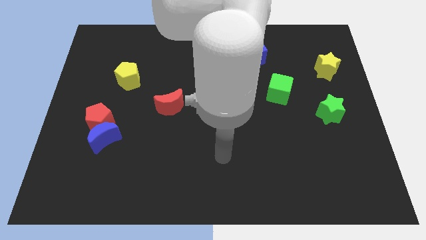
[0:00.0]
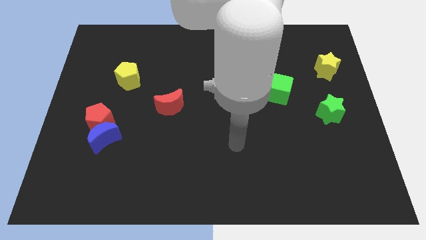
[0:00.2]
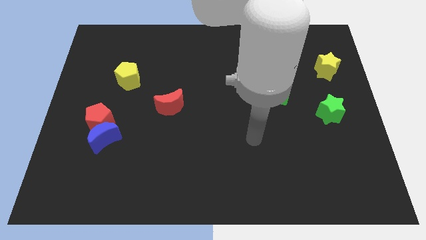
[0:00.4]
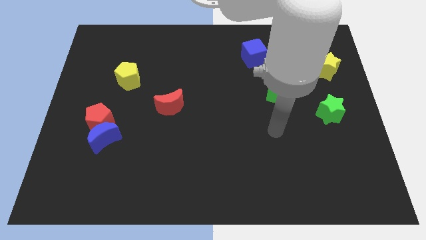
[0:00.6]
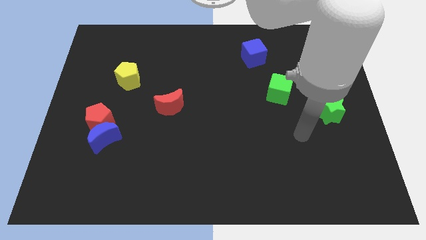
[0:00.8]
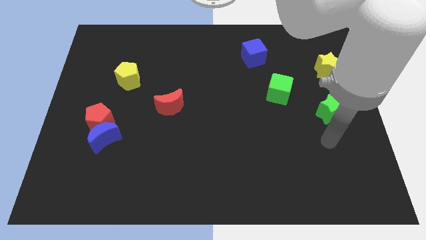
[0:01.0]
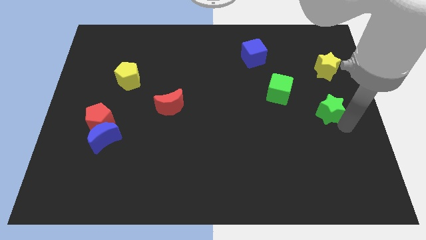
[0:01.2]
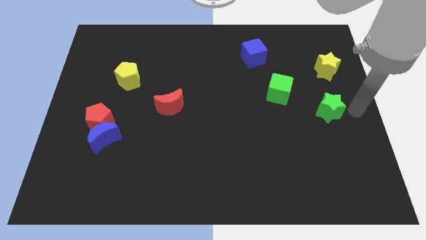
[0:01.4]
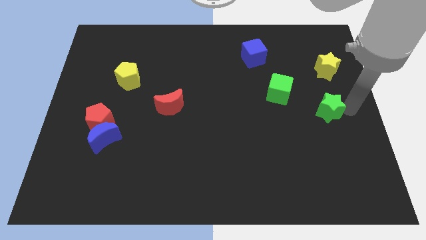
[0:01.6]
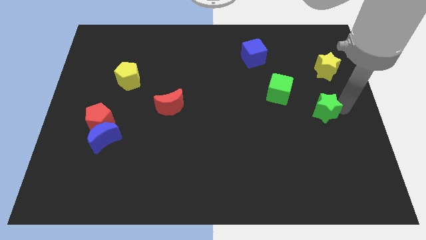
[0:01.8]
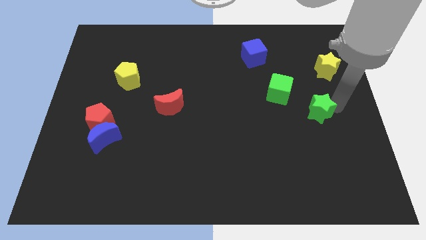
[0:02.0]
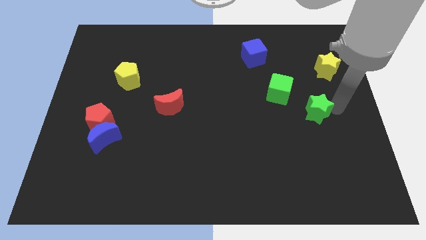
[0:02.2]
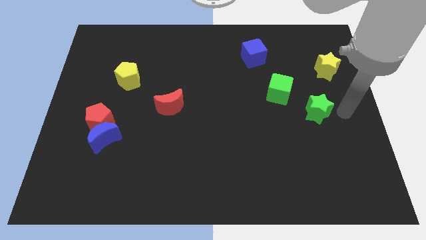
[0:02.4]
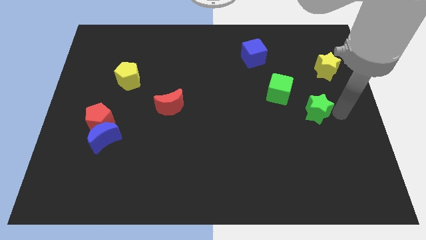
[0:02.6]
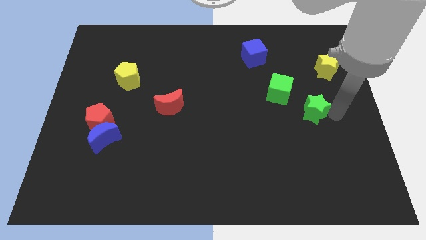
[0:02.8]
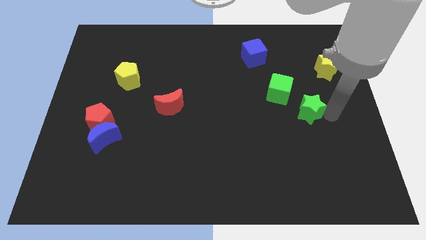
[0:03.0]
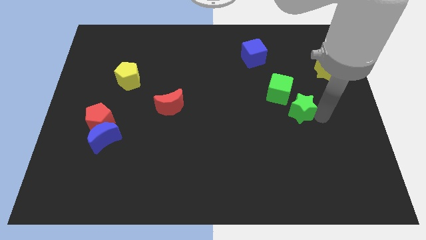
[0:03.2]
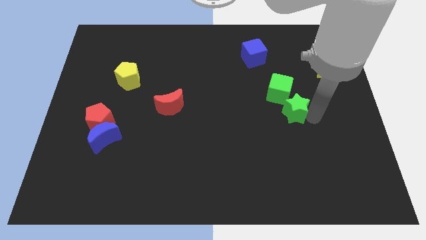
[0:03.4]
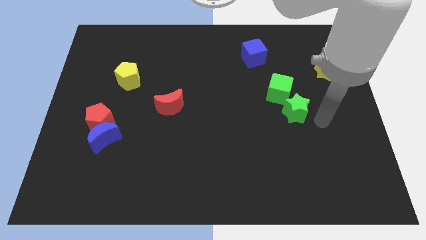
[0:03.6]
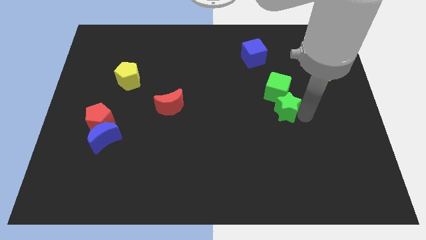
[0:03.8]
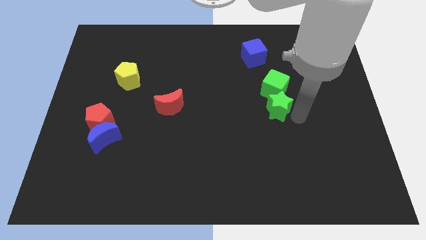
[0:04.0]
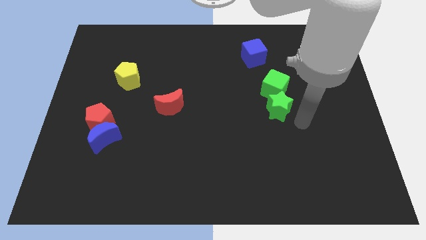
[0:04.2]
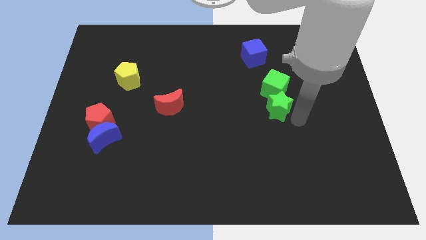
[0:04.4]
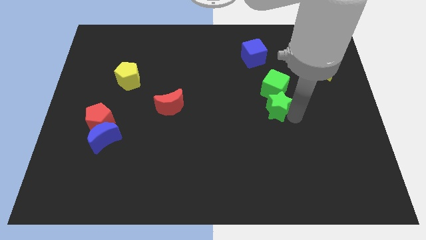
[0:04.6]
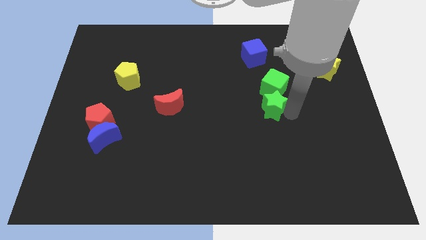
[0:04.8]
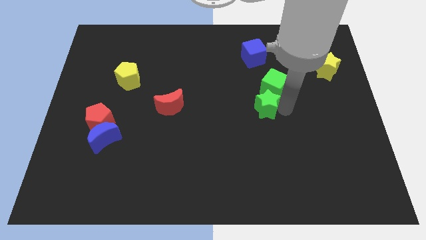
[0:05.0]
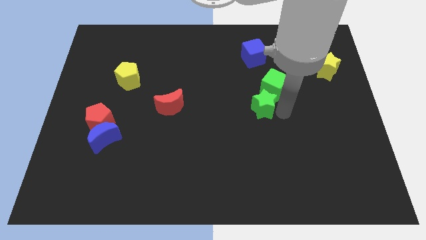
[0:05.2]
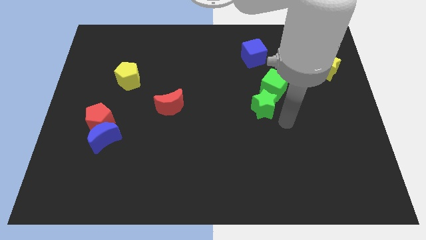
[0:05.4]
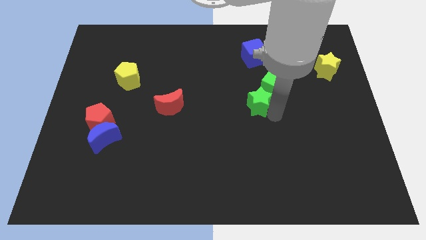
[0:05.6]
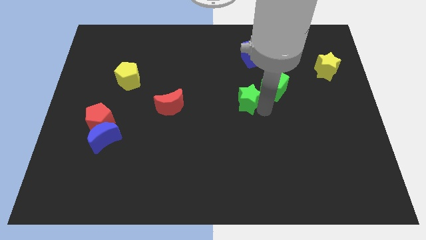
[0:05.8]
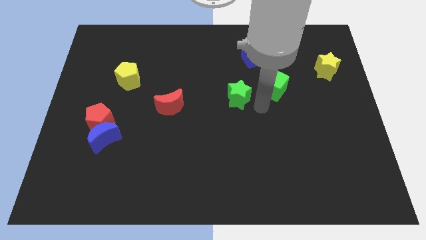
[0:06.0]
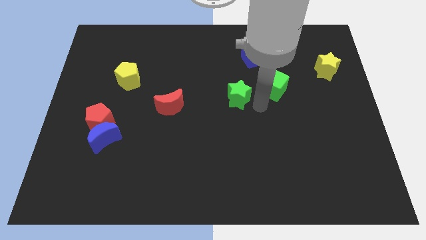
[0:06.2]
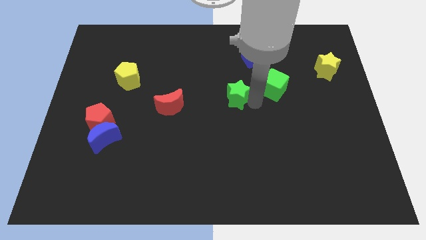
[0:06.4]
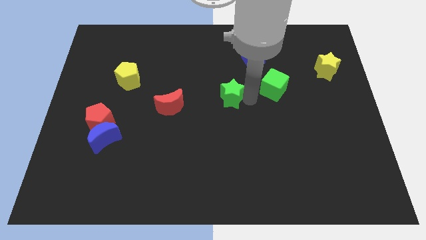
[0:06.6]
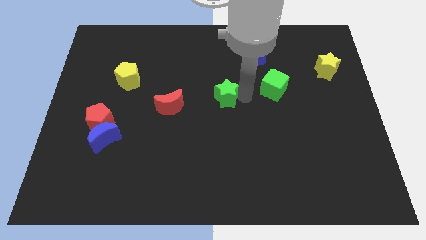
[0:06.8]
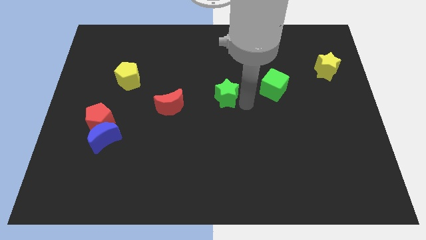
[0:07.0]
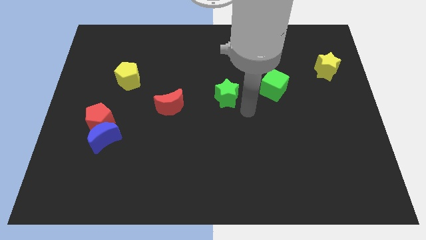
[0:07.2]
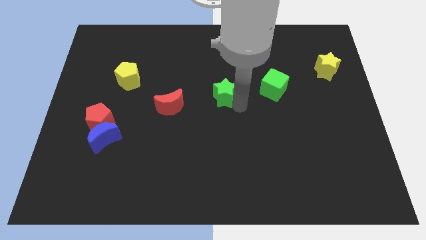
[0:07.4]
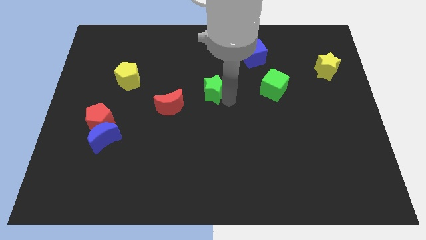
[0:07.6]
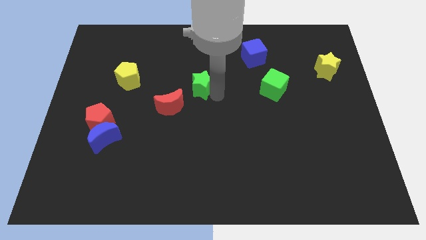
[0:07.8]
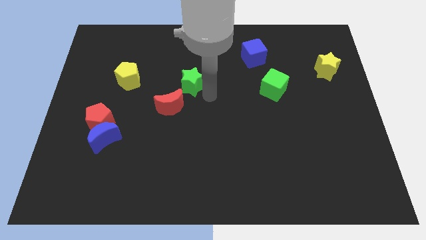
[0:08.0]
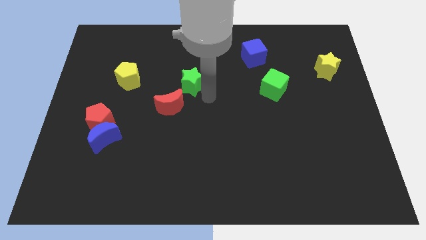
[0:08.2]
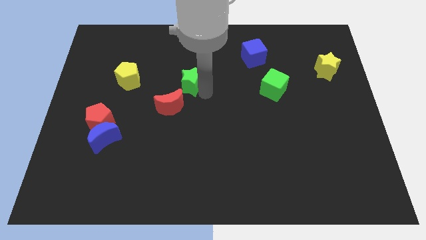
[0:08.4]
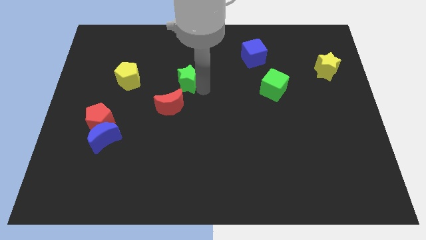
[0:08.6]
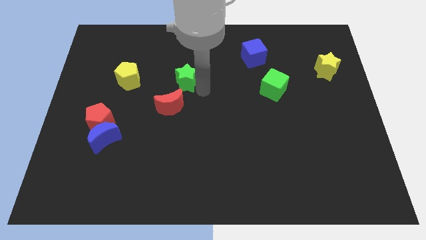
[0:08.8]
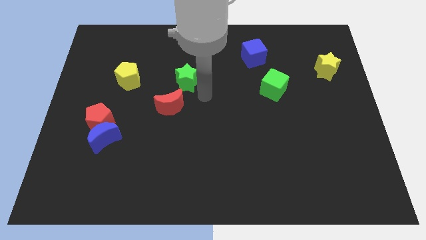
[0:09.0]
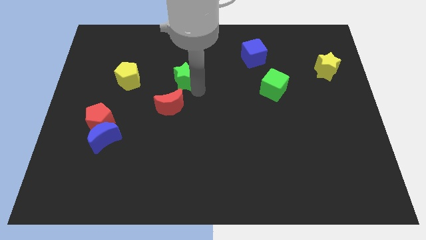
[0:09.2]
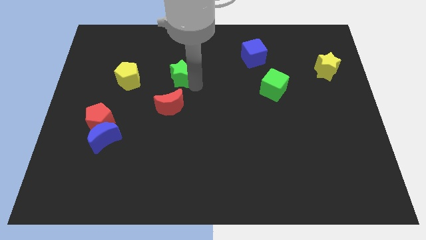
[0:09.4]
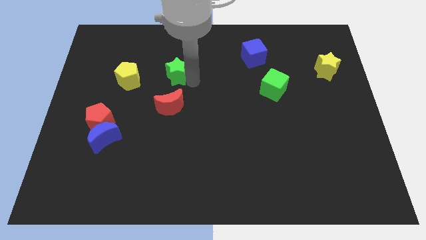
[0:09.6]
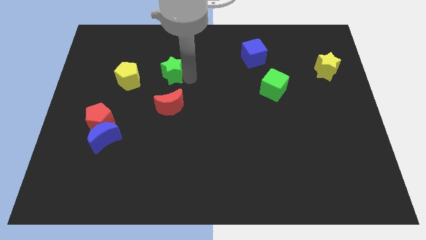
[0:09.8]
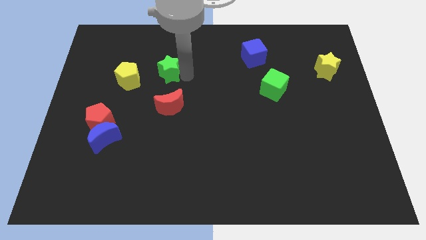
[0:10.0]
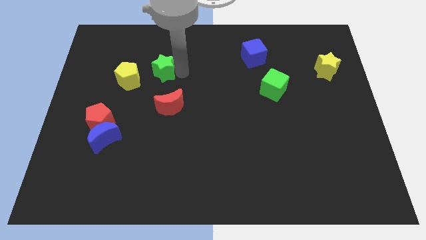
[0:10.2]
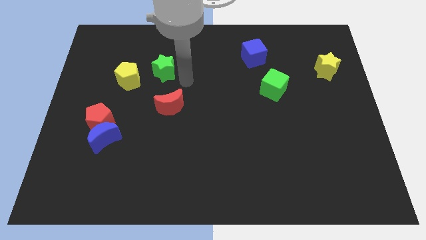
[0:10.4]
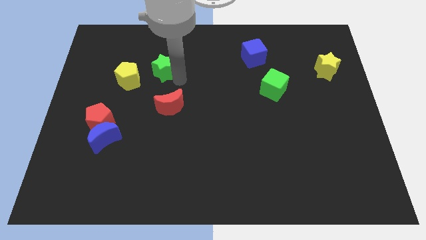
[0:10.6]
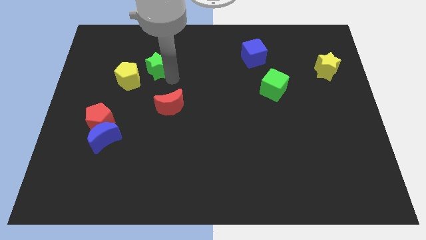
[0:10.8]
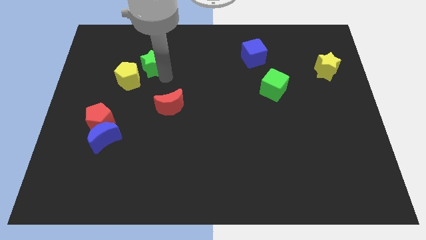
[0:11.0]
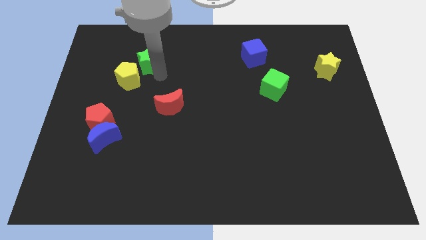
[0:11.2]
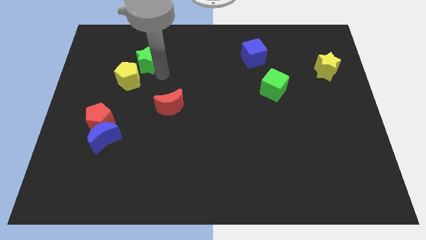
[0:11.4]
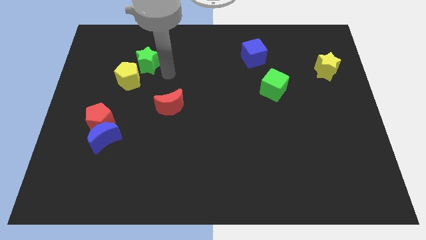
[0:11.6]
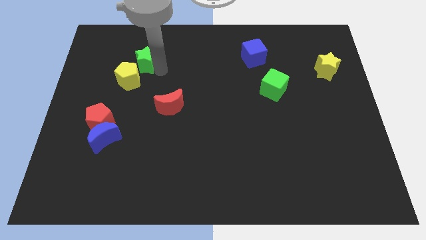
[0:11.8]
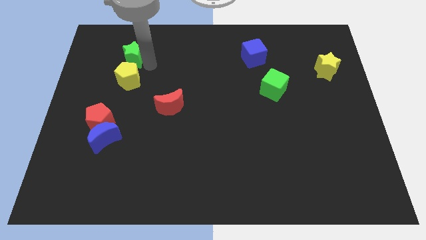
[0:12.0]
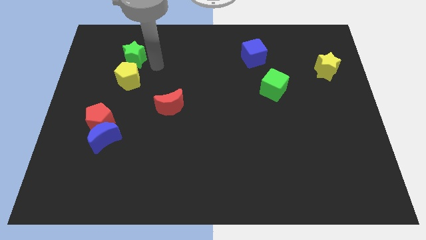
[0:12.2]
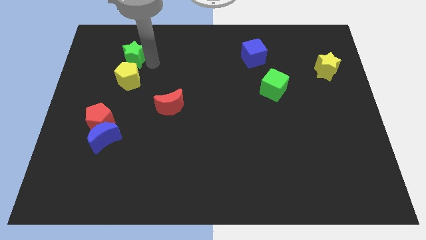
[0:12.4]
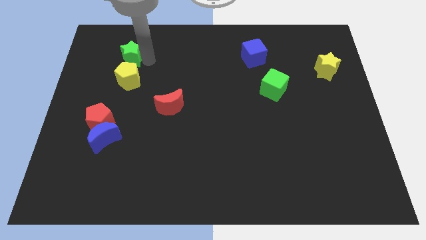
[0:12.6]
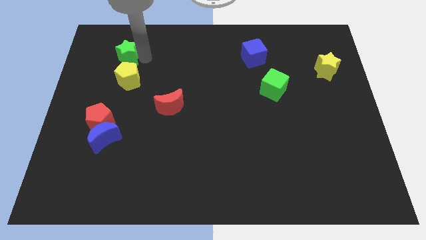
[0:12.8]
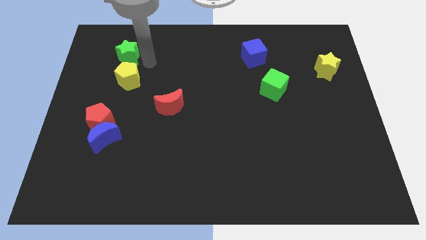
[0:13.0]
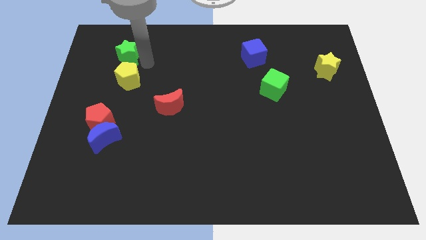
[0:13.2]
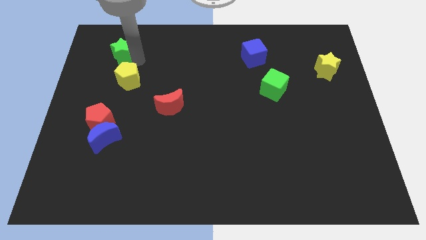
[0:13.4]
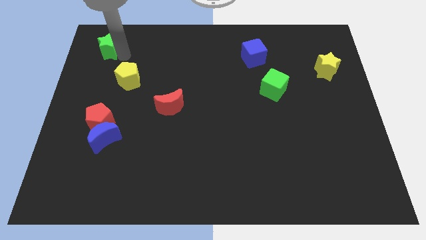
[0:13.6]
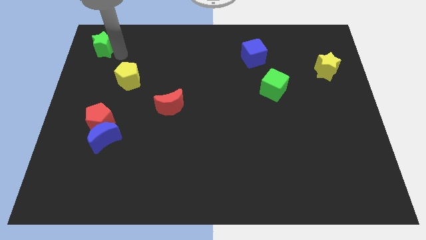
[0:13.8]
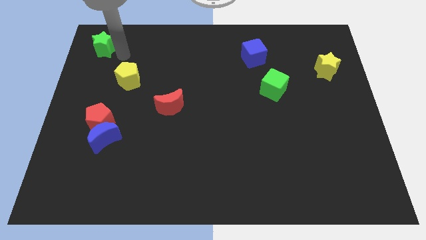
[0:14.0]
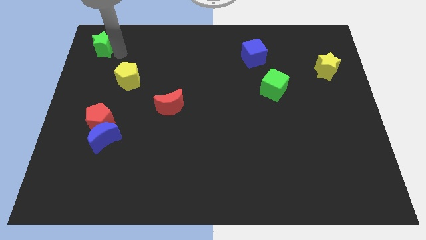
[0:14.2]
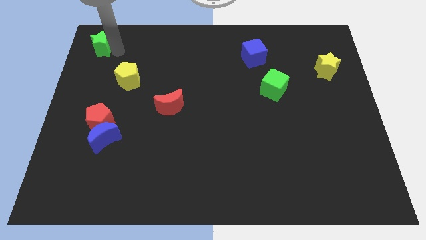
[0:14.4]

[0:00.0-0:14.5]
put the green star to the top left of the board
